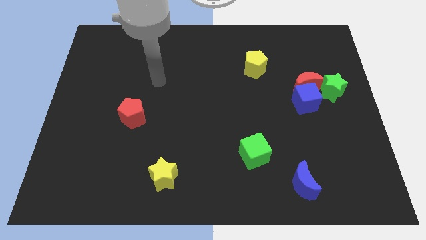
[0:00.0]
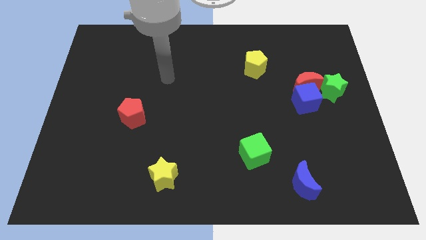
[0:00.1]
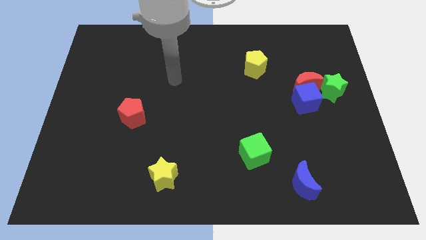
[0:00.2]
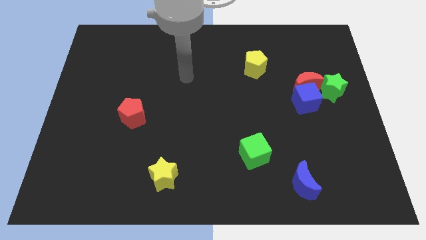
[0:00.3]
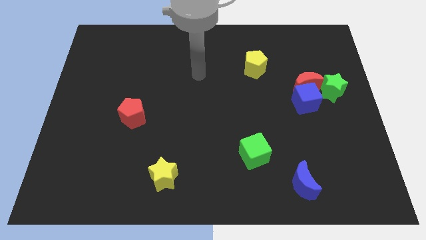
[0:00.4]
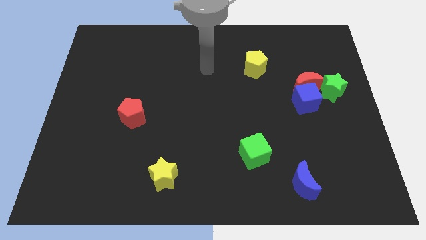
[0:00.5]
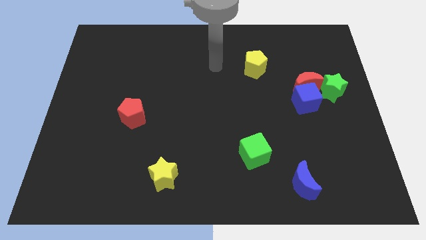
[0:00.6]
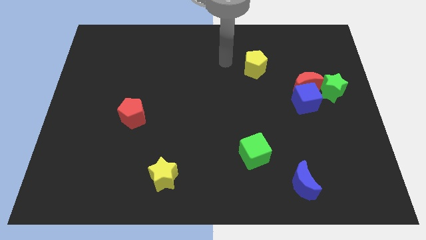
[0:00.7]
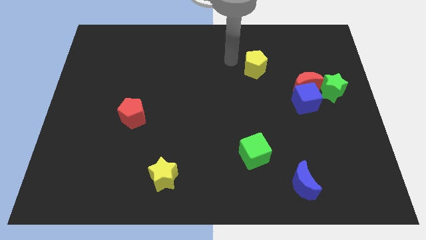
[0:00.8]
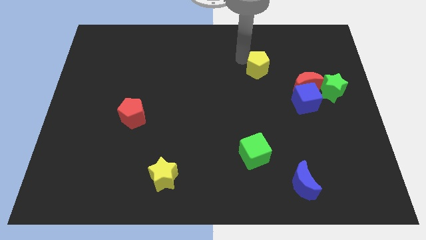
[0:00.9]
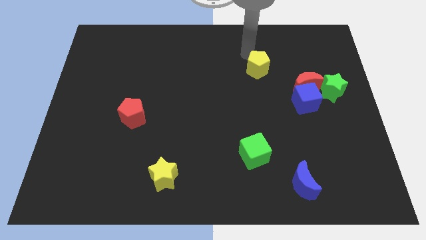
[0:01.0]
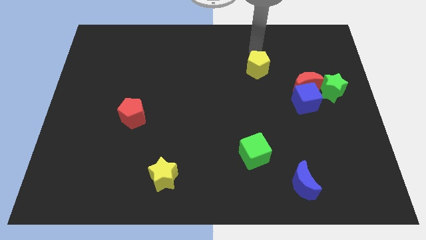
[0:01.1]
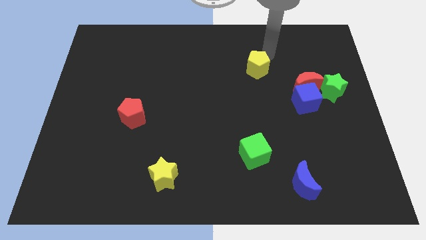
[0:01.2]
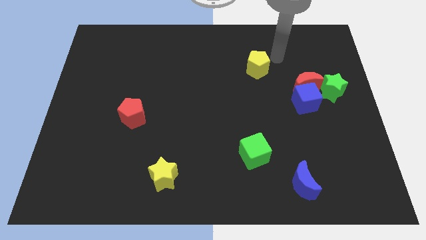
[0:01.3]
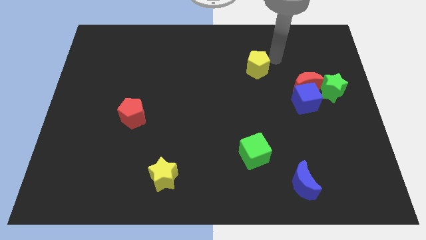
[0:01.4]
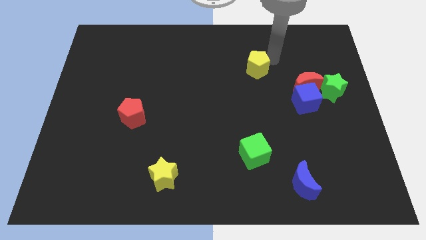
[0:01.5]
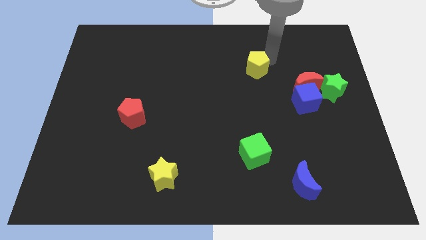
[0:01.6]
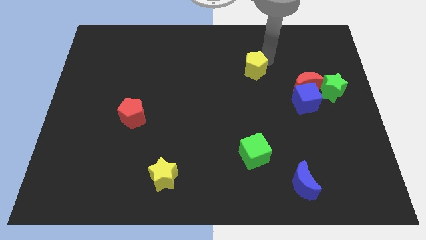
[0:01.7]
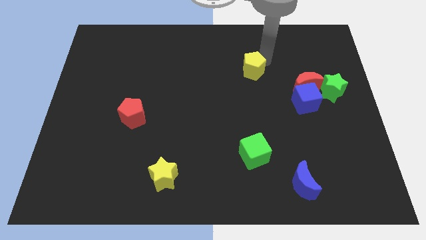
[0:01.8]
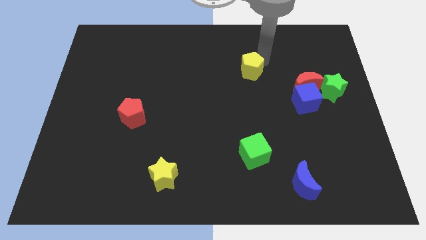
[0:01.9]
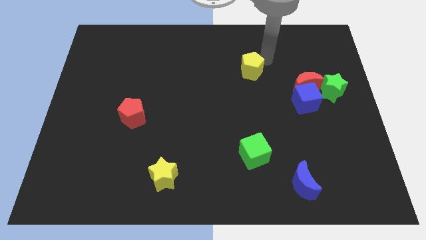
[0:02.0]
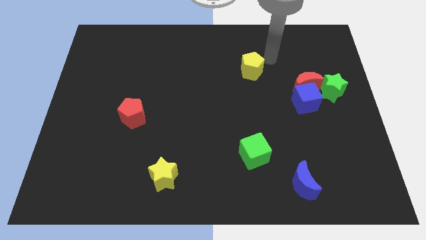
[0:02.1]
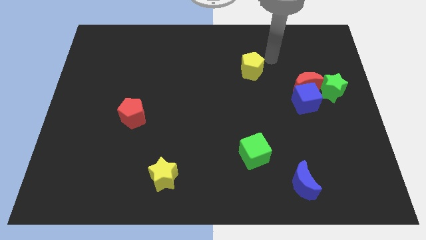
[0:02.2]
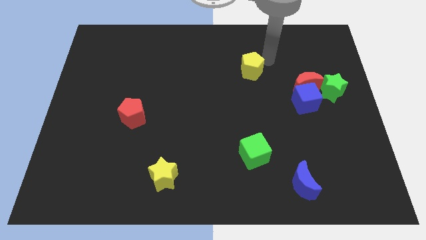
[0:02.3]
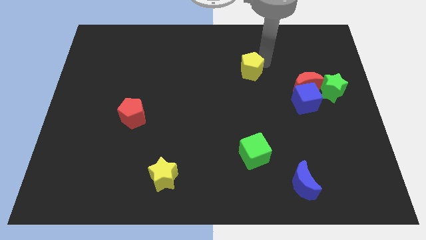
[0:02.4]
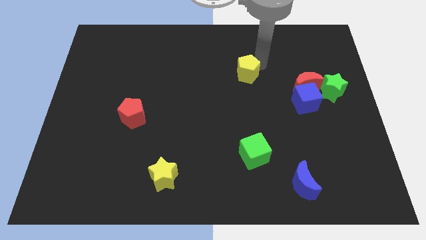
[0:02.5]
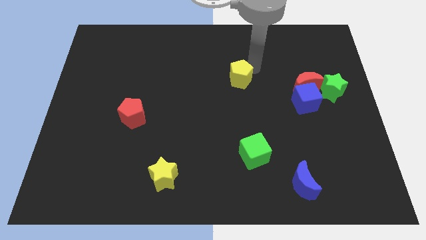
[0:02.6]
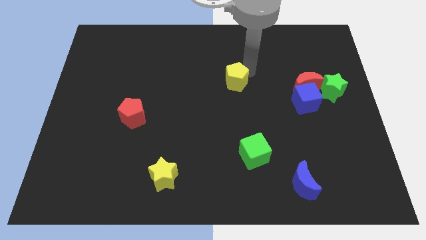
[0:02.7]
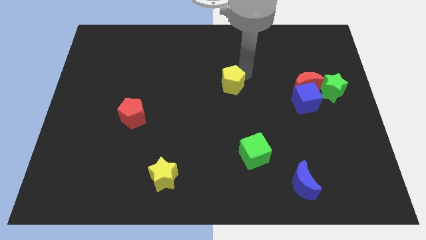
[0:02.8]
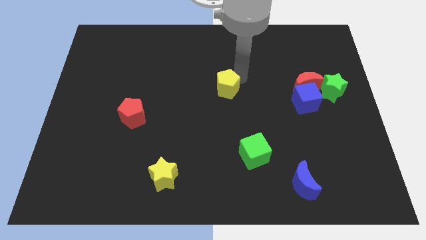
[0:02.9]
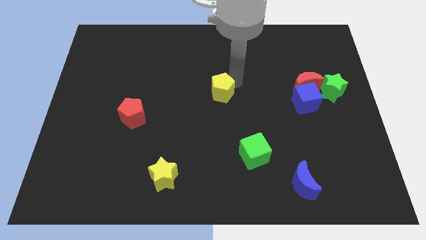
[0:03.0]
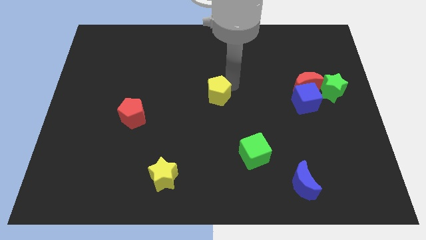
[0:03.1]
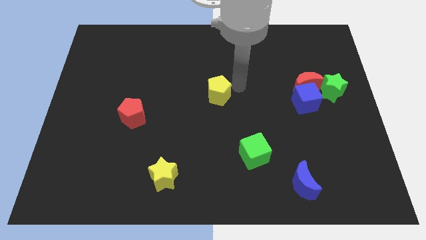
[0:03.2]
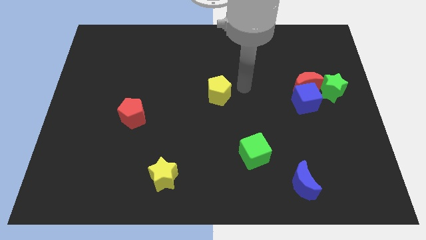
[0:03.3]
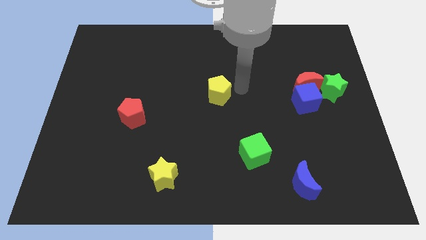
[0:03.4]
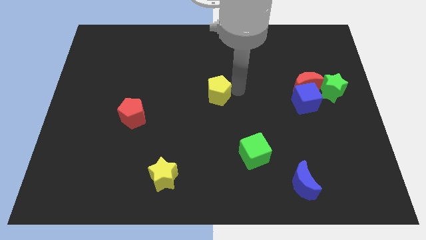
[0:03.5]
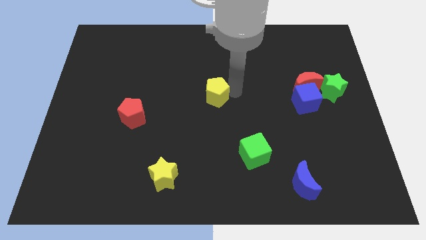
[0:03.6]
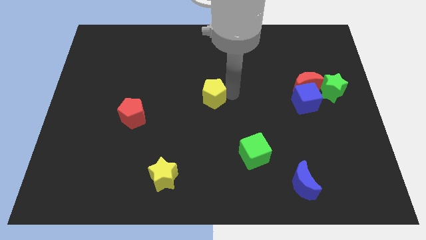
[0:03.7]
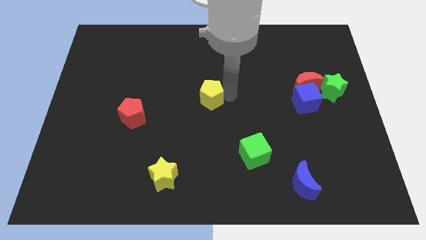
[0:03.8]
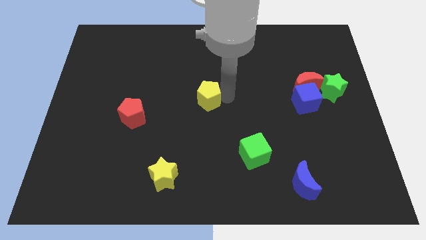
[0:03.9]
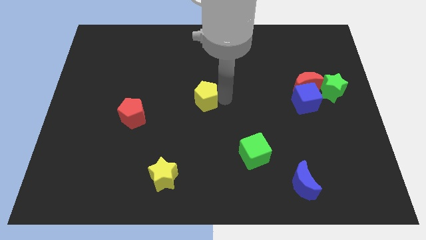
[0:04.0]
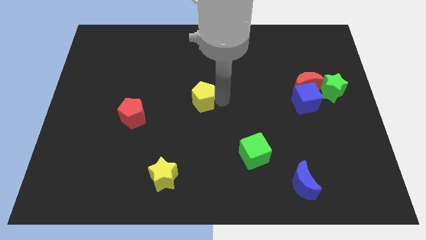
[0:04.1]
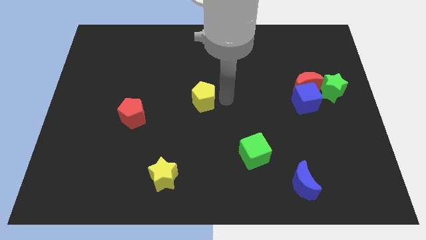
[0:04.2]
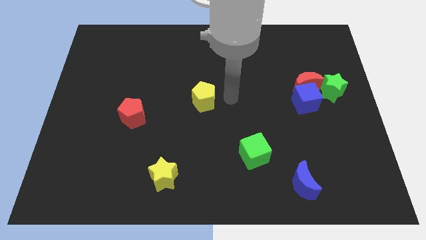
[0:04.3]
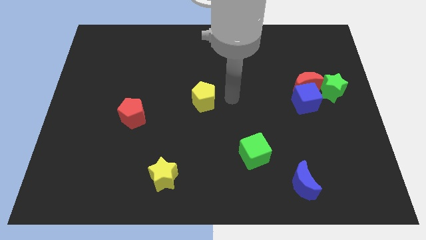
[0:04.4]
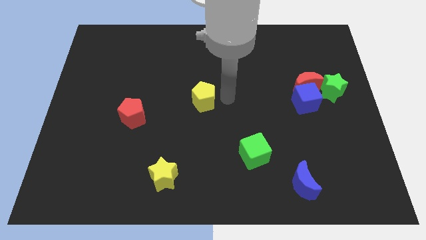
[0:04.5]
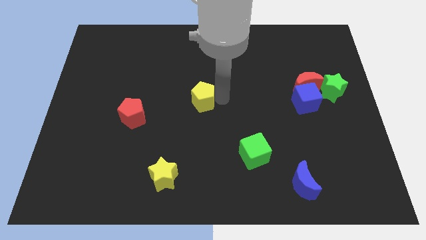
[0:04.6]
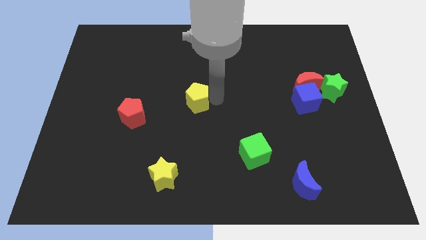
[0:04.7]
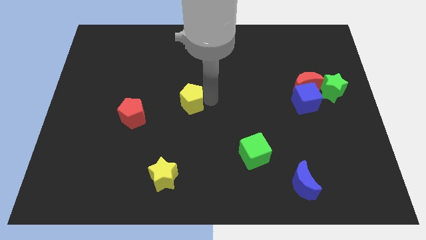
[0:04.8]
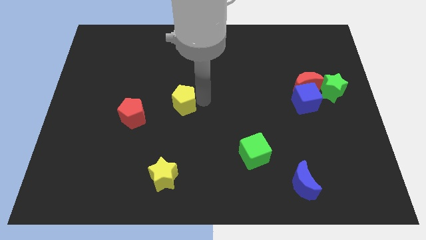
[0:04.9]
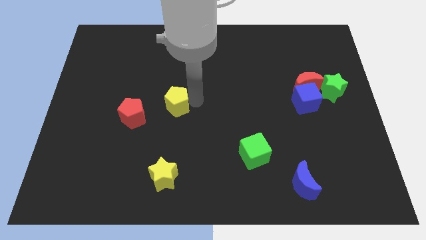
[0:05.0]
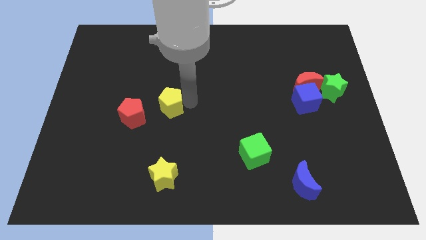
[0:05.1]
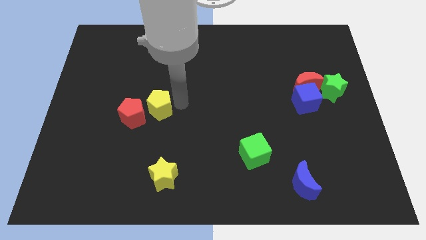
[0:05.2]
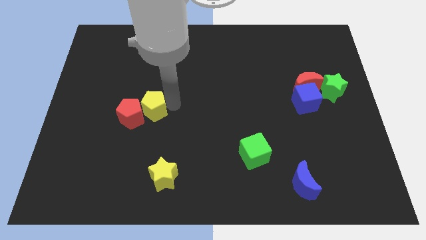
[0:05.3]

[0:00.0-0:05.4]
push the yellow pentagon towards the red pentagon
